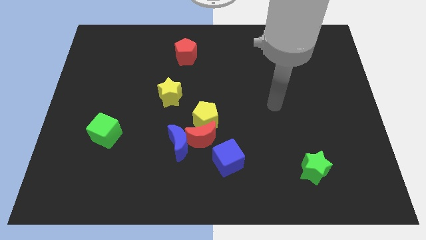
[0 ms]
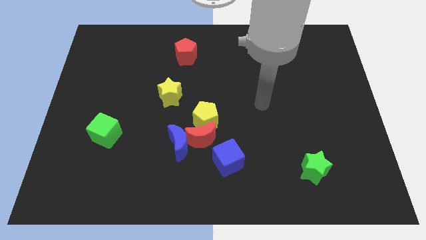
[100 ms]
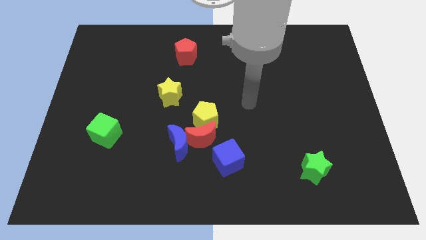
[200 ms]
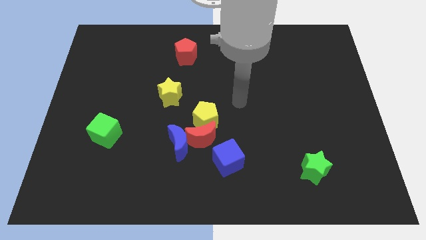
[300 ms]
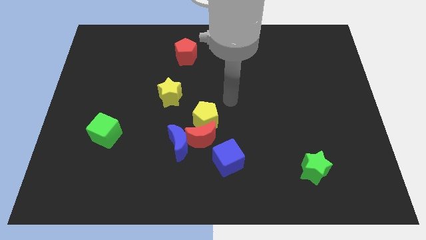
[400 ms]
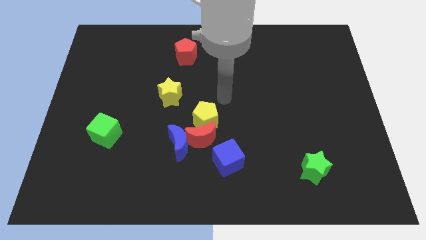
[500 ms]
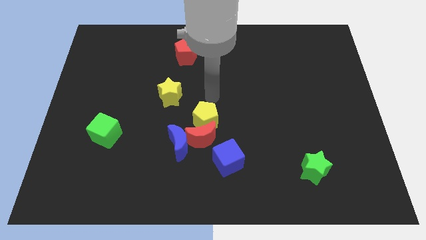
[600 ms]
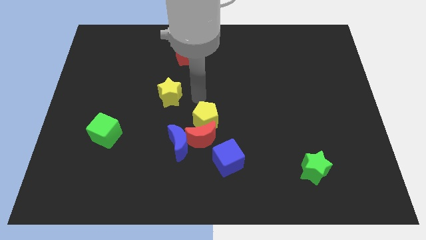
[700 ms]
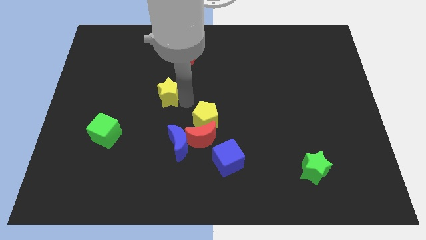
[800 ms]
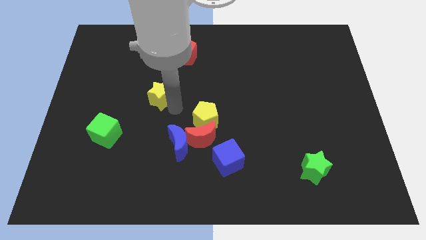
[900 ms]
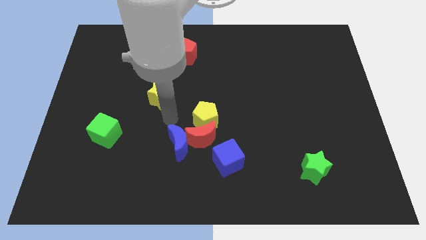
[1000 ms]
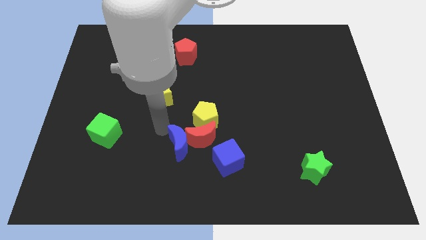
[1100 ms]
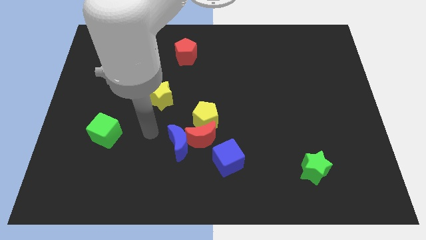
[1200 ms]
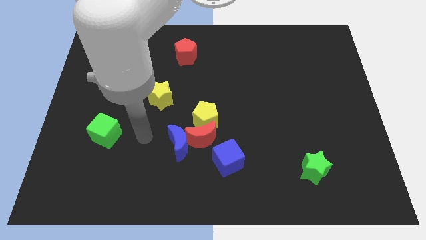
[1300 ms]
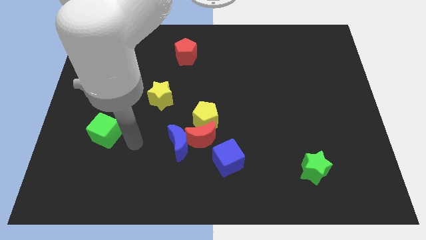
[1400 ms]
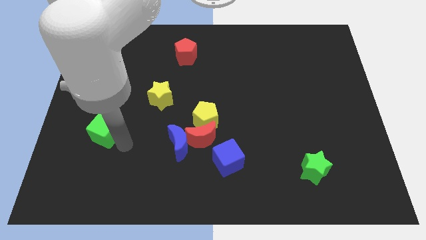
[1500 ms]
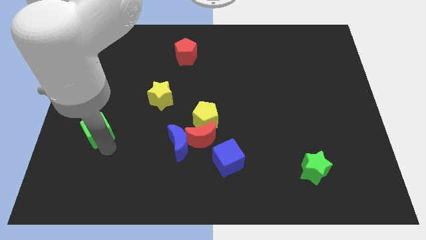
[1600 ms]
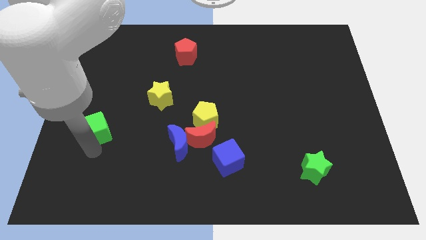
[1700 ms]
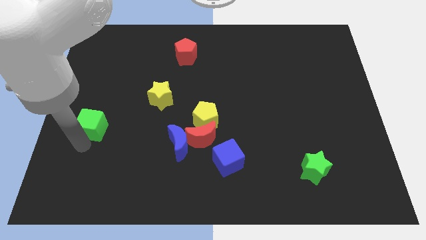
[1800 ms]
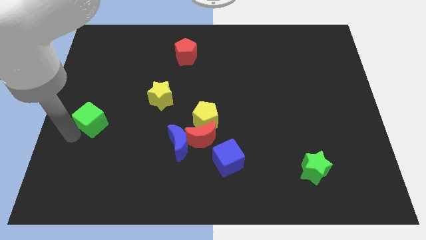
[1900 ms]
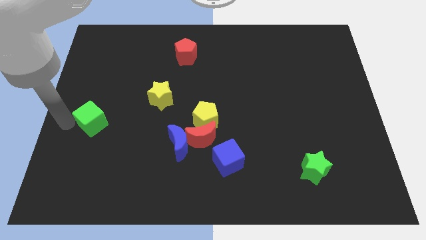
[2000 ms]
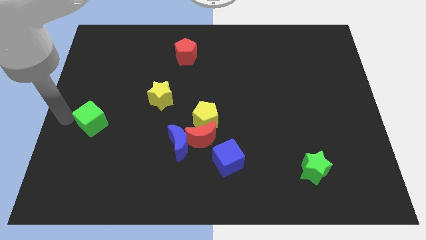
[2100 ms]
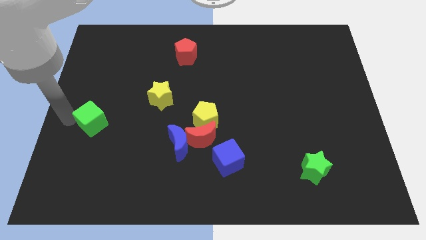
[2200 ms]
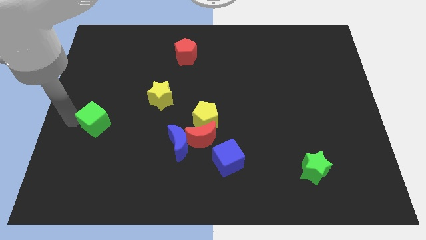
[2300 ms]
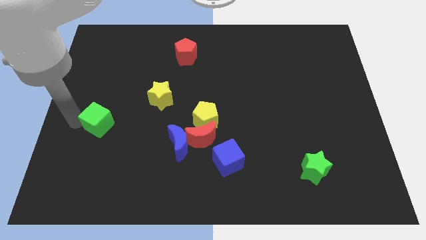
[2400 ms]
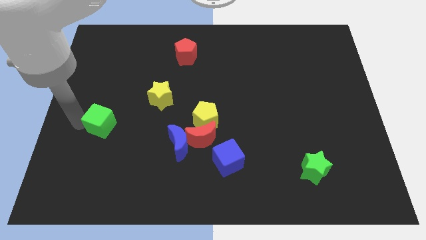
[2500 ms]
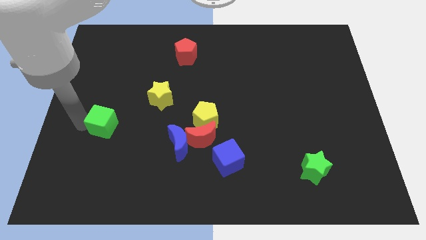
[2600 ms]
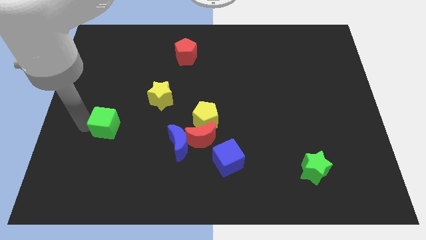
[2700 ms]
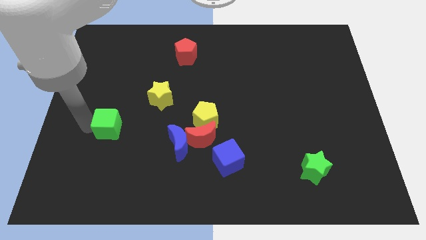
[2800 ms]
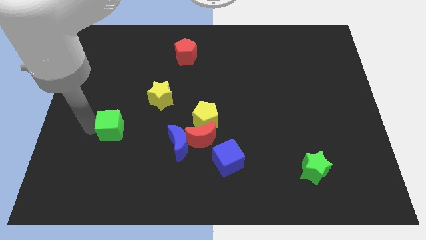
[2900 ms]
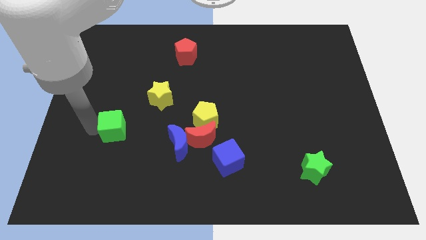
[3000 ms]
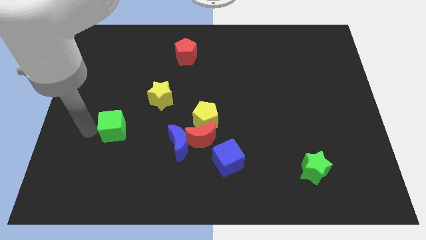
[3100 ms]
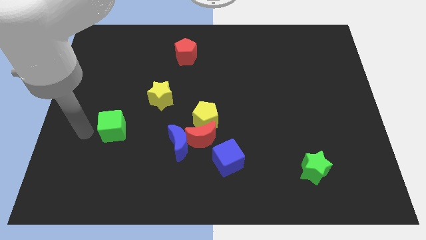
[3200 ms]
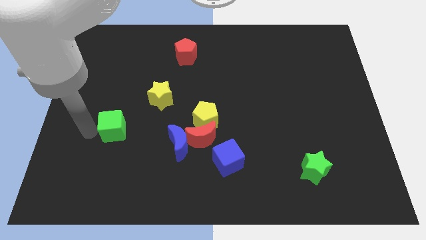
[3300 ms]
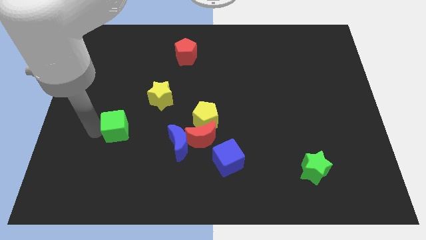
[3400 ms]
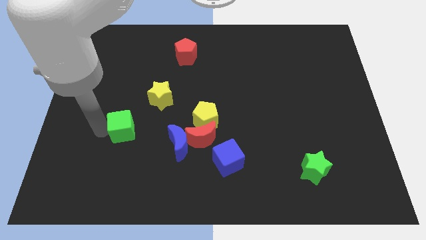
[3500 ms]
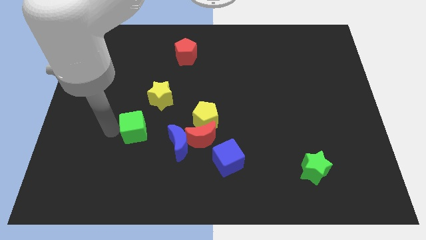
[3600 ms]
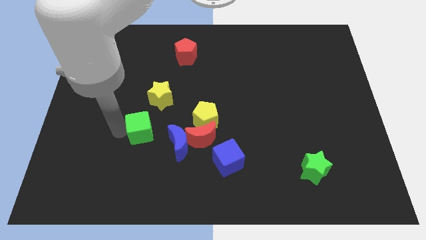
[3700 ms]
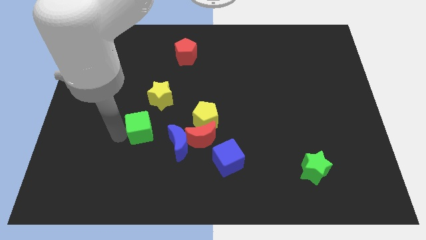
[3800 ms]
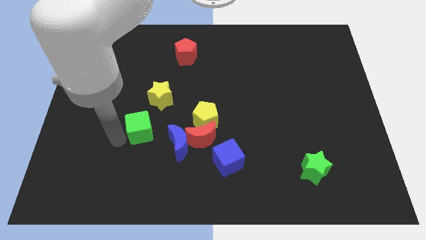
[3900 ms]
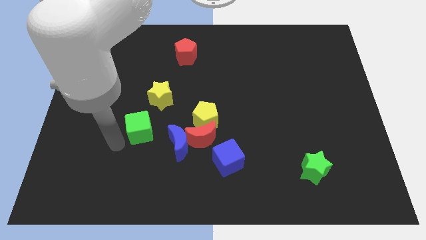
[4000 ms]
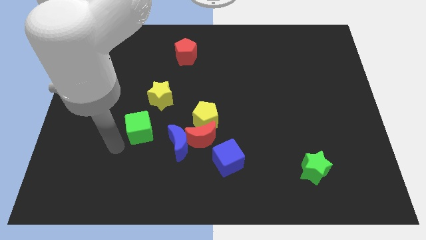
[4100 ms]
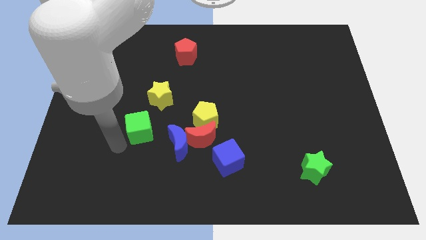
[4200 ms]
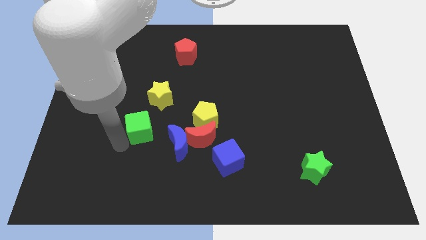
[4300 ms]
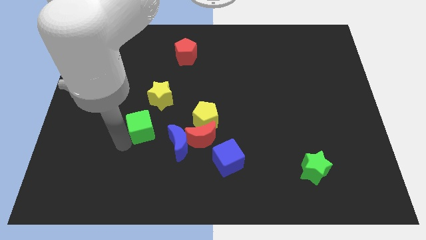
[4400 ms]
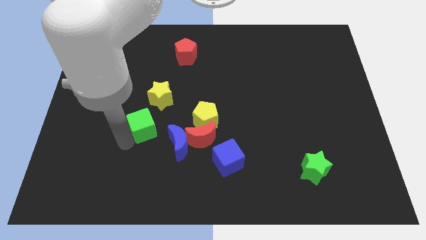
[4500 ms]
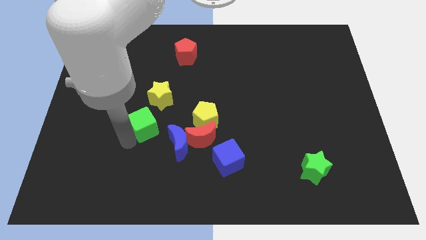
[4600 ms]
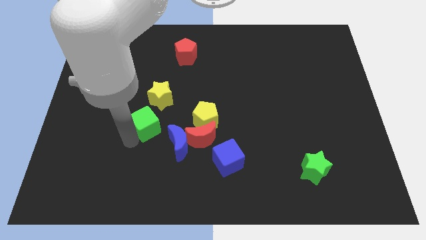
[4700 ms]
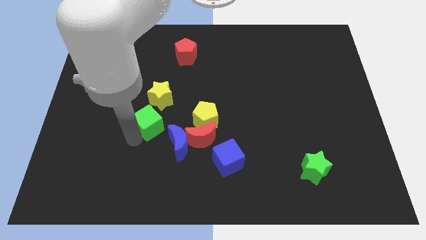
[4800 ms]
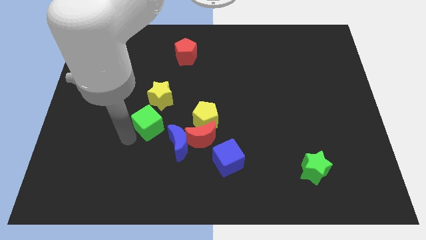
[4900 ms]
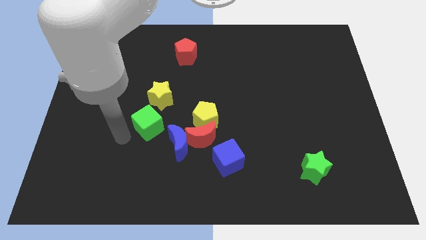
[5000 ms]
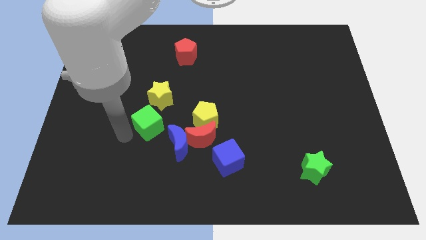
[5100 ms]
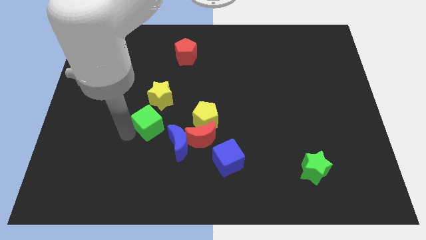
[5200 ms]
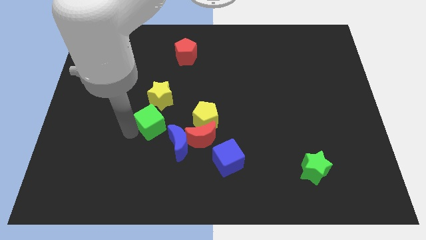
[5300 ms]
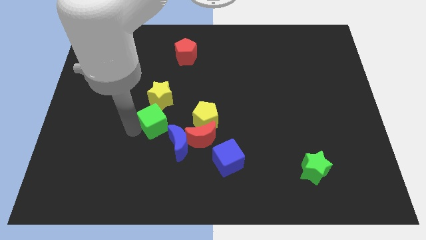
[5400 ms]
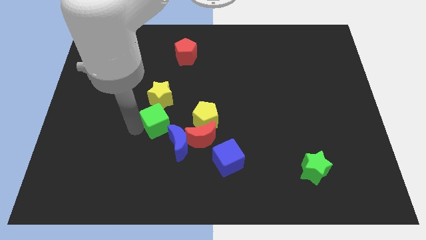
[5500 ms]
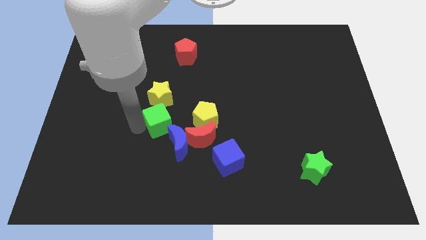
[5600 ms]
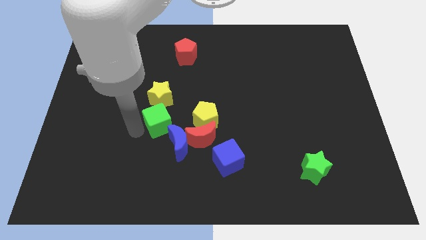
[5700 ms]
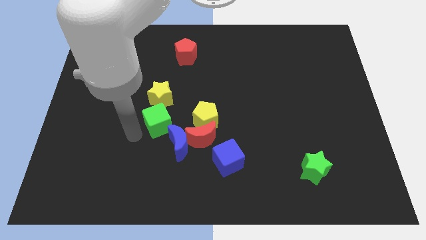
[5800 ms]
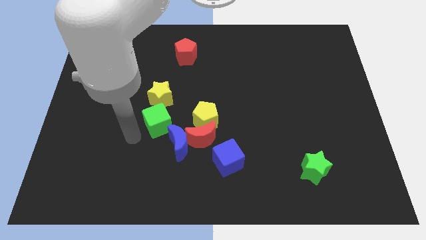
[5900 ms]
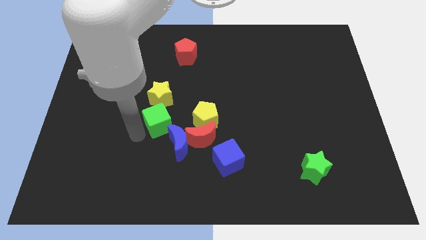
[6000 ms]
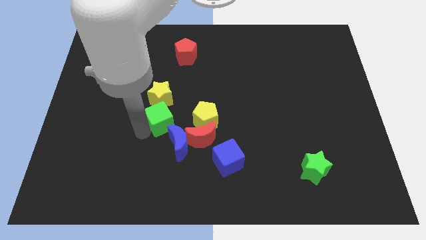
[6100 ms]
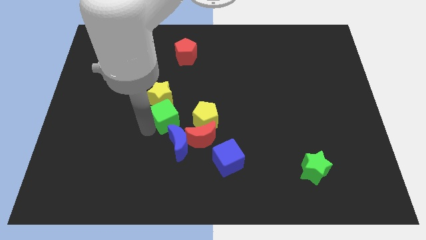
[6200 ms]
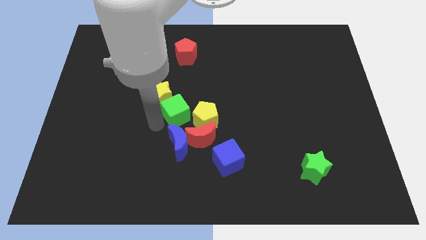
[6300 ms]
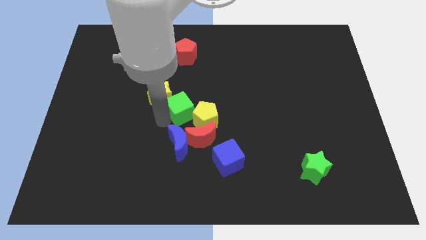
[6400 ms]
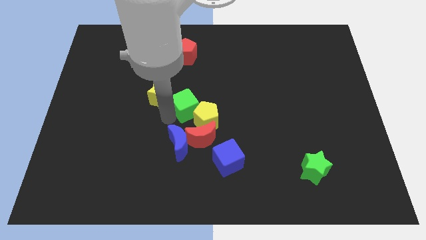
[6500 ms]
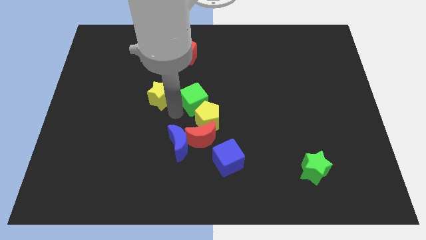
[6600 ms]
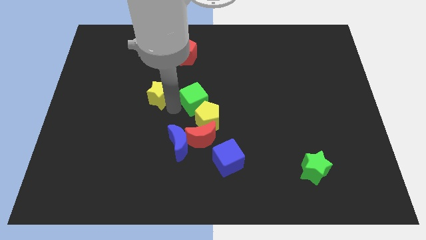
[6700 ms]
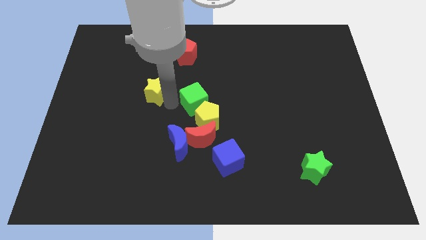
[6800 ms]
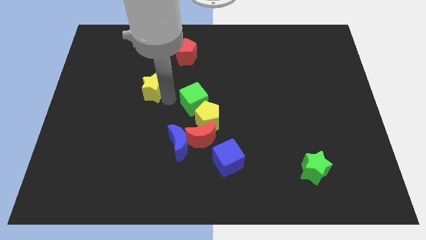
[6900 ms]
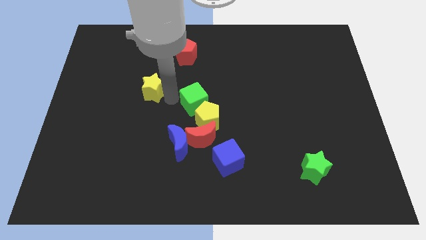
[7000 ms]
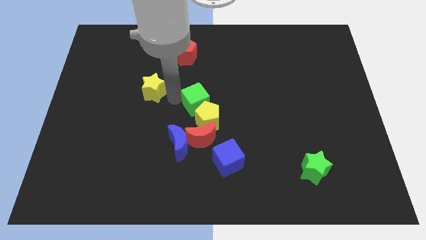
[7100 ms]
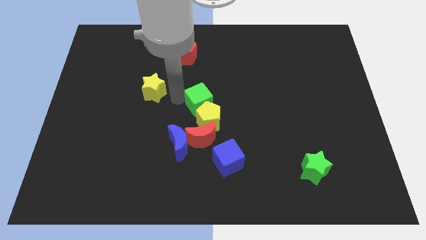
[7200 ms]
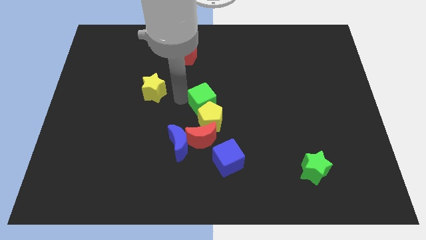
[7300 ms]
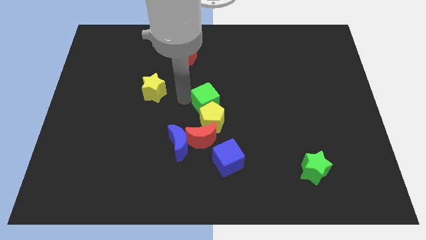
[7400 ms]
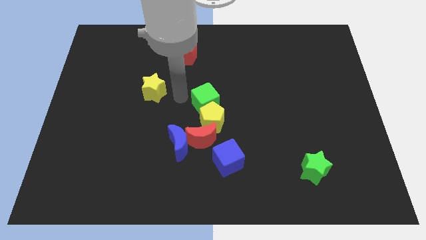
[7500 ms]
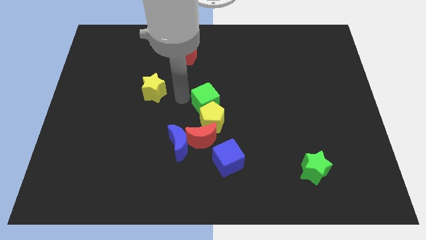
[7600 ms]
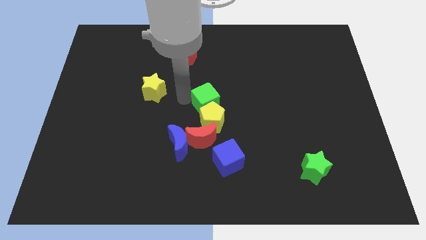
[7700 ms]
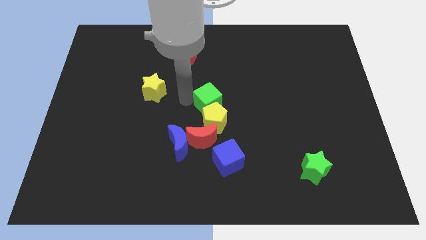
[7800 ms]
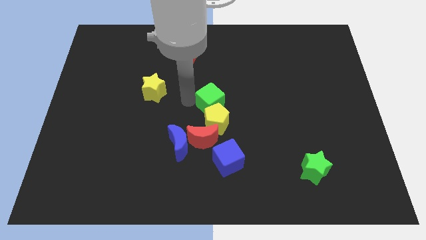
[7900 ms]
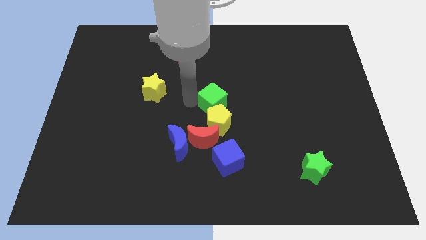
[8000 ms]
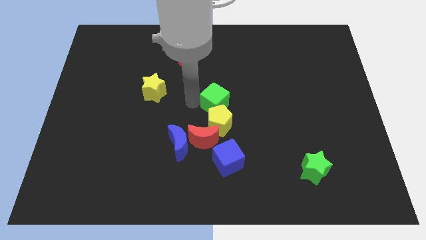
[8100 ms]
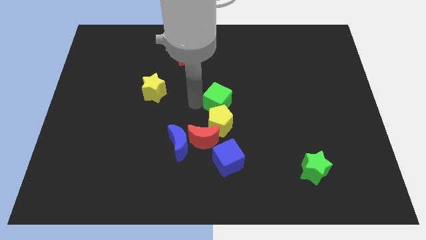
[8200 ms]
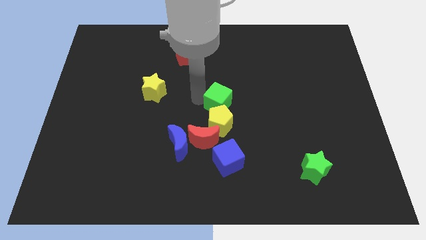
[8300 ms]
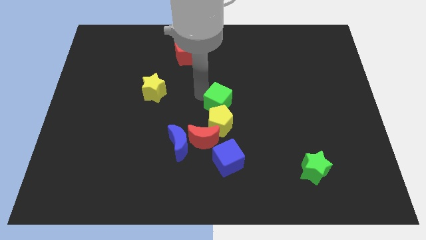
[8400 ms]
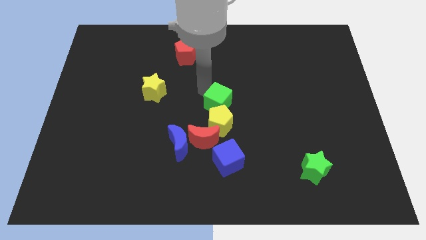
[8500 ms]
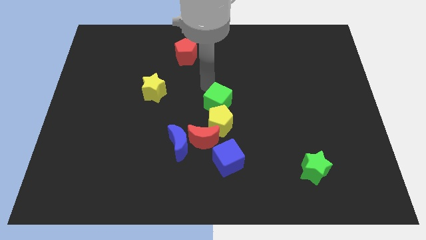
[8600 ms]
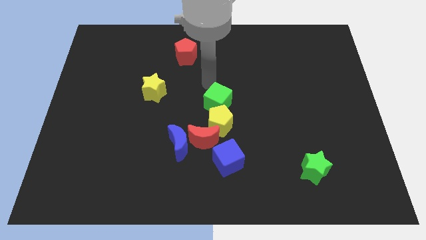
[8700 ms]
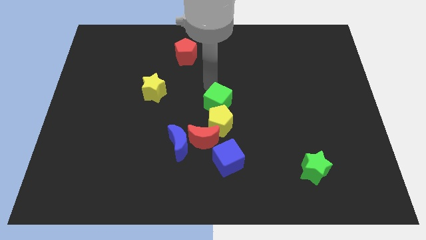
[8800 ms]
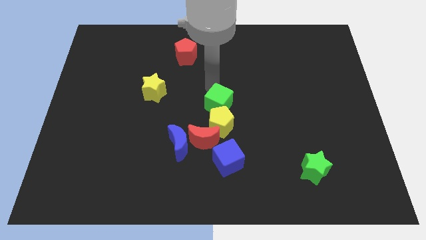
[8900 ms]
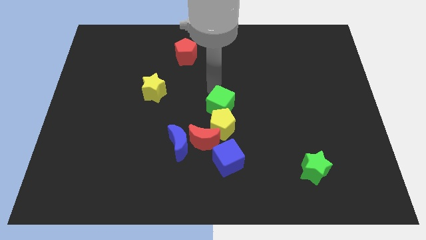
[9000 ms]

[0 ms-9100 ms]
move the green cube to the top right side of the red moon
